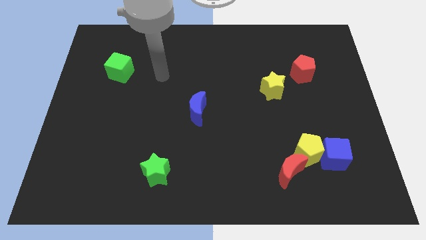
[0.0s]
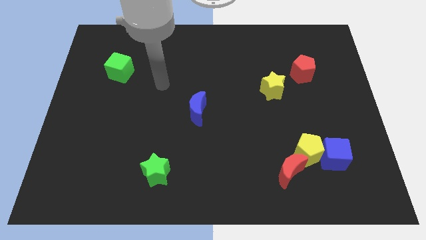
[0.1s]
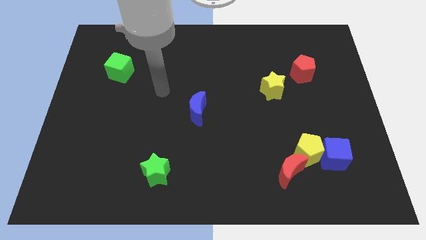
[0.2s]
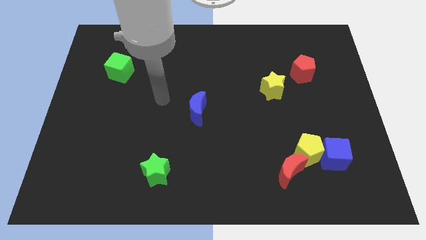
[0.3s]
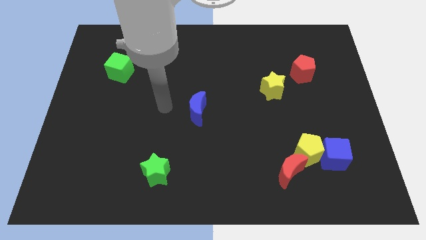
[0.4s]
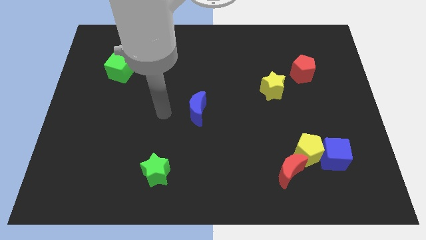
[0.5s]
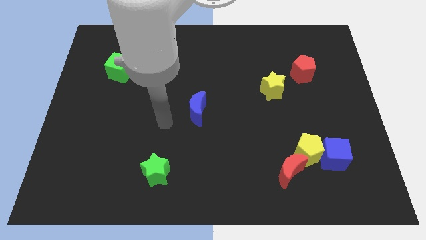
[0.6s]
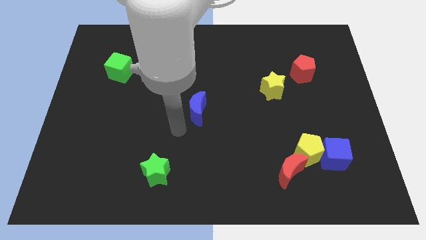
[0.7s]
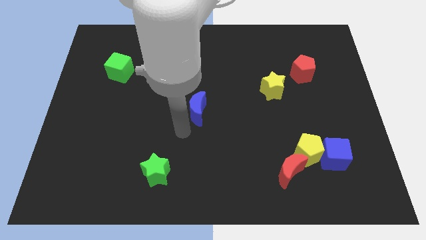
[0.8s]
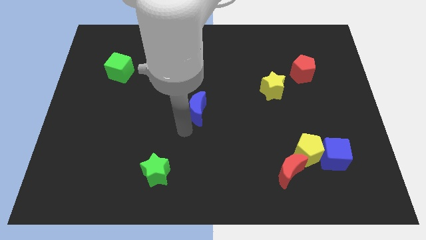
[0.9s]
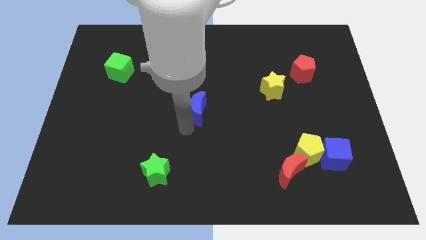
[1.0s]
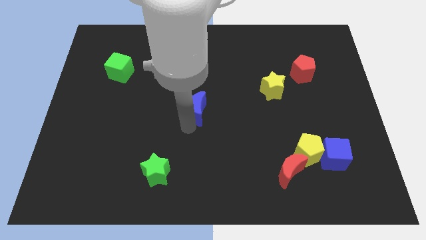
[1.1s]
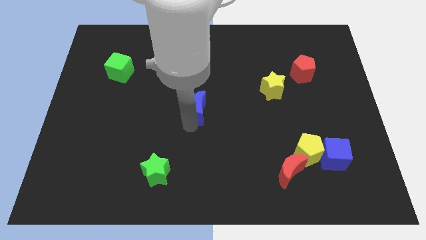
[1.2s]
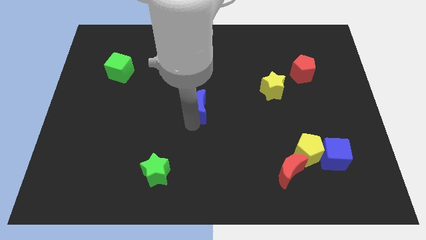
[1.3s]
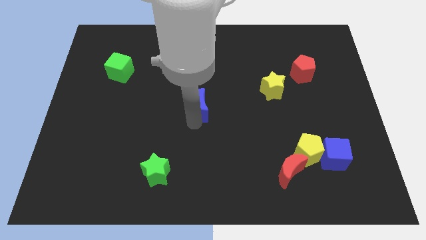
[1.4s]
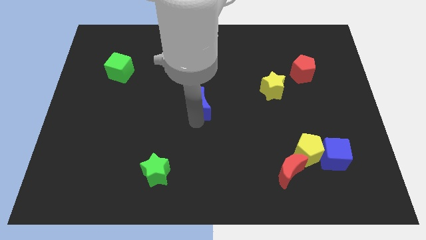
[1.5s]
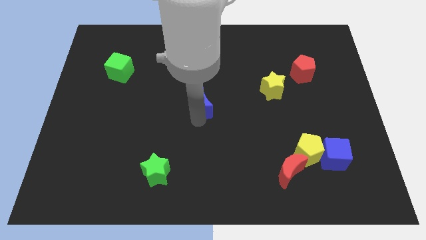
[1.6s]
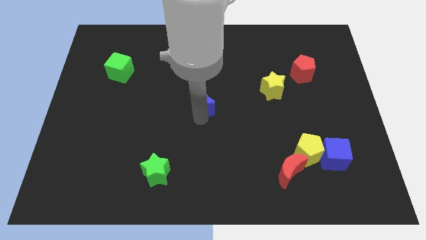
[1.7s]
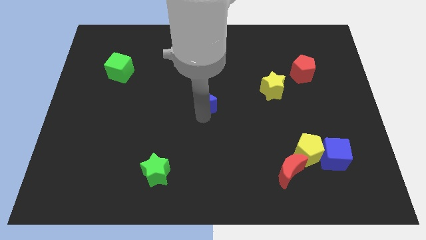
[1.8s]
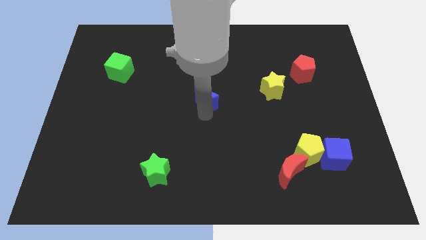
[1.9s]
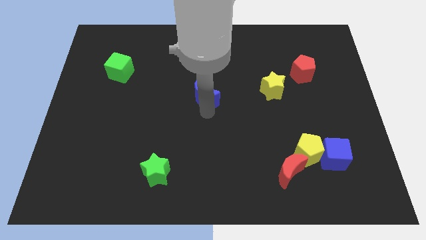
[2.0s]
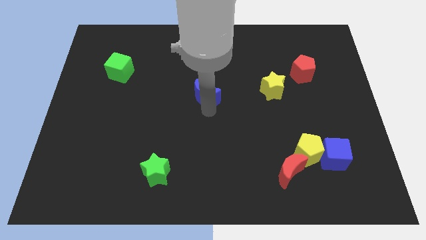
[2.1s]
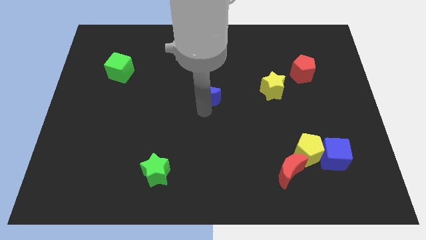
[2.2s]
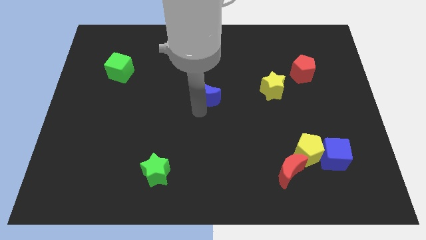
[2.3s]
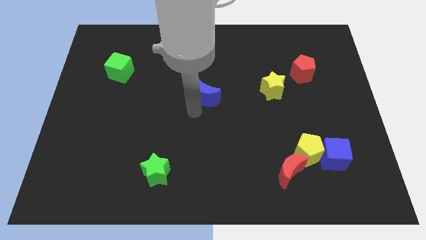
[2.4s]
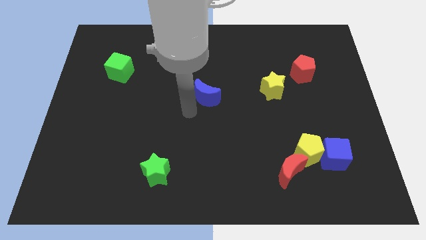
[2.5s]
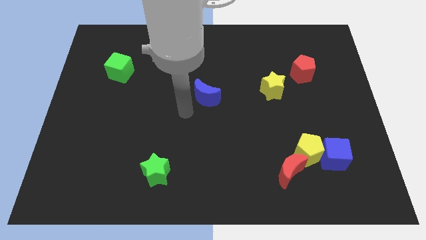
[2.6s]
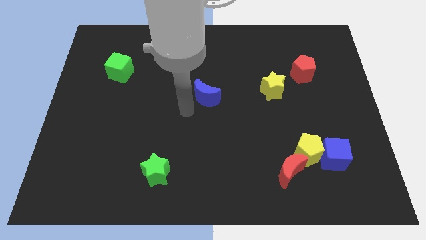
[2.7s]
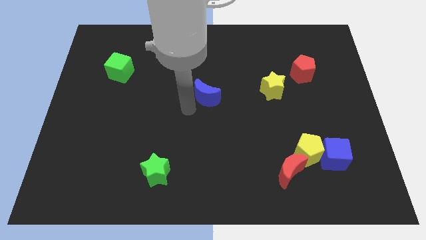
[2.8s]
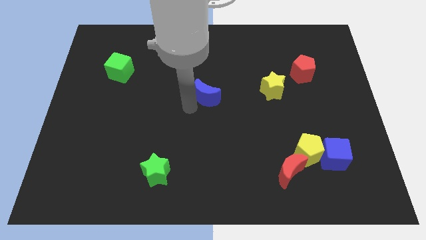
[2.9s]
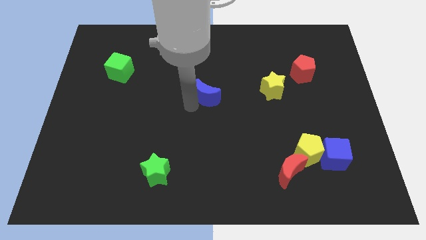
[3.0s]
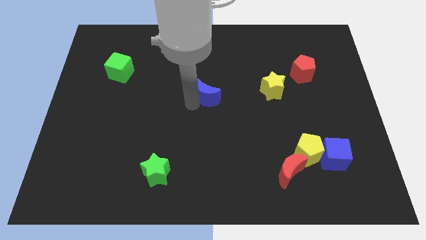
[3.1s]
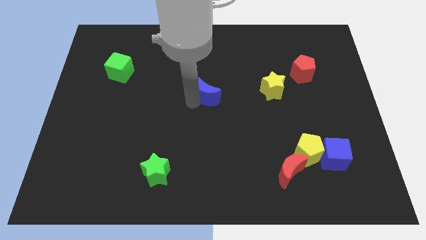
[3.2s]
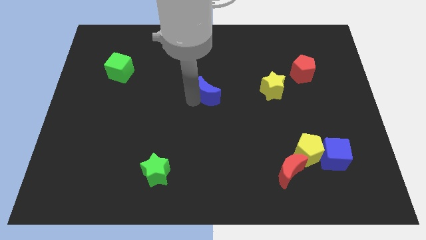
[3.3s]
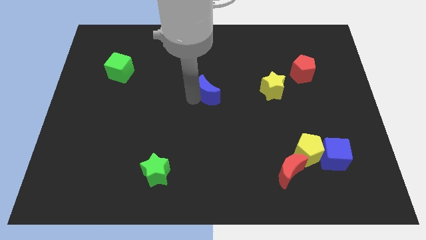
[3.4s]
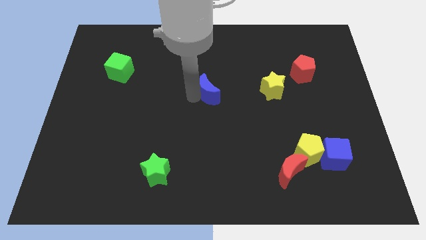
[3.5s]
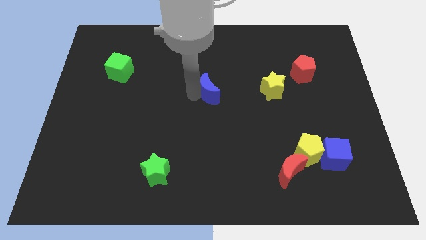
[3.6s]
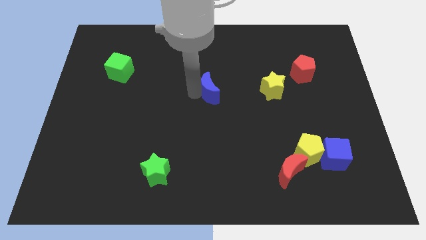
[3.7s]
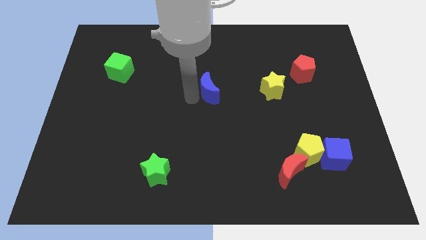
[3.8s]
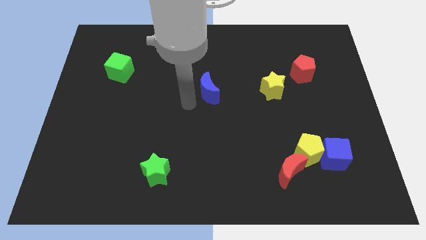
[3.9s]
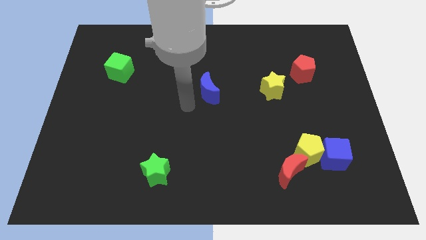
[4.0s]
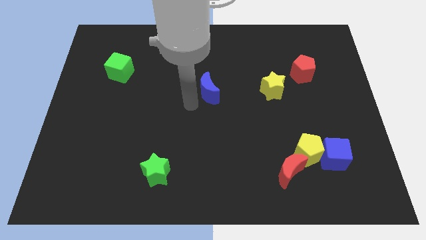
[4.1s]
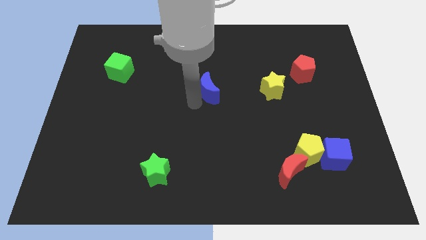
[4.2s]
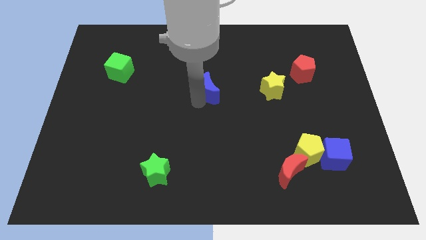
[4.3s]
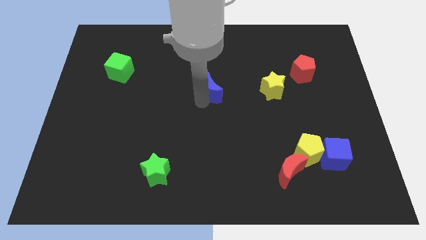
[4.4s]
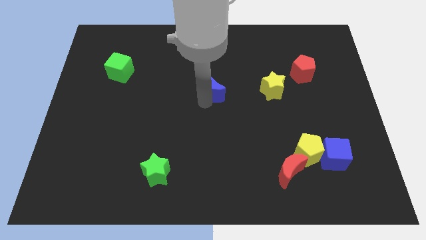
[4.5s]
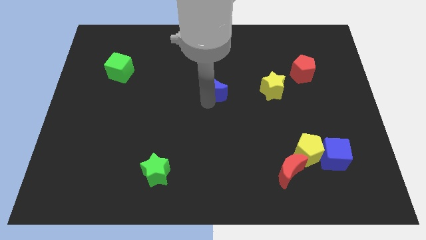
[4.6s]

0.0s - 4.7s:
move the blue moon somewhat diagonally up and to the right

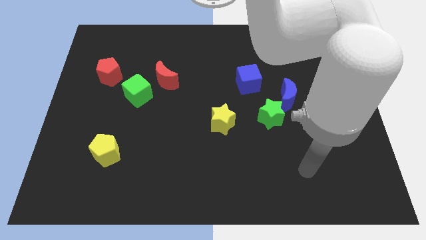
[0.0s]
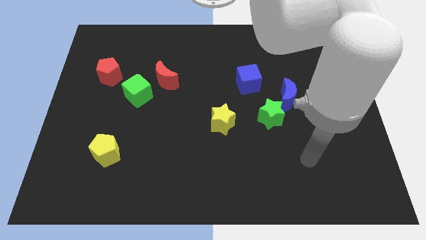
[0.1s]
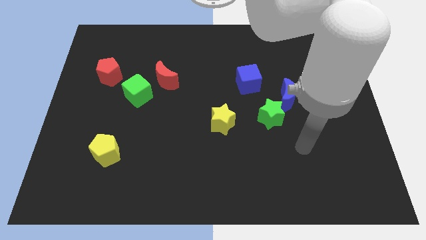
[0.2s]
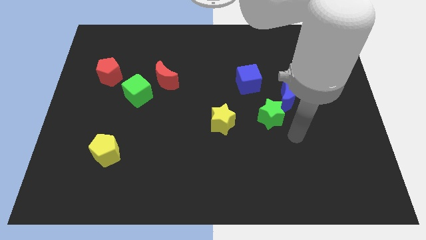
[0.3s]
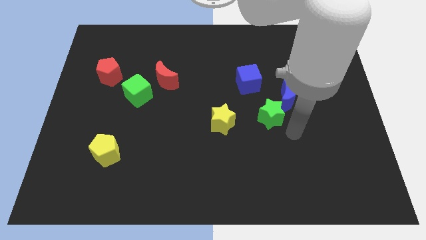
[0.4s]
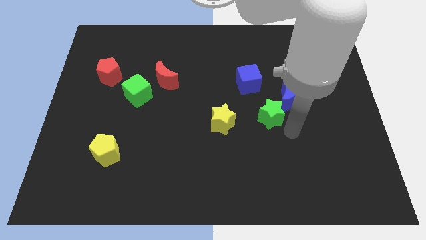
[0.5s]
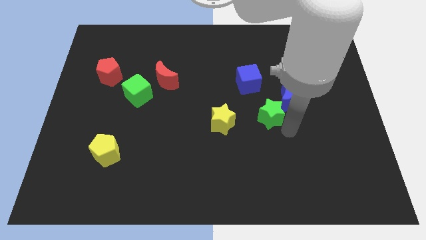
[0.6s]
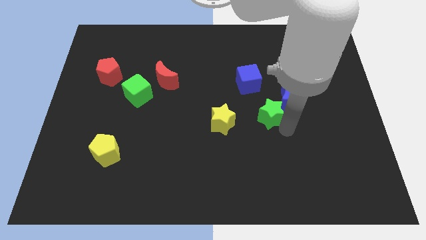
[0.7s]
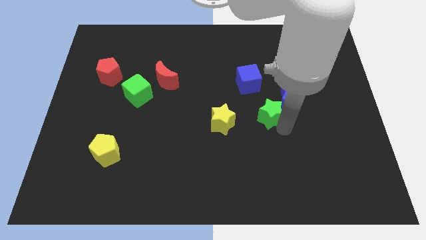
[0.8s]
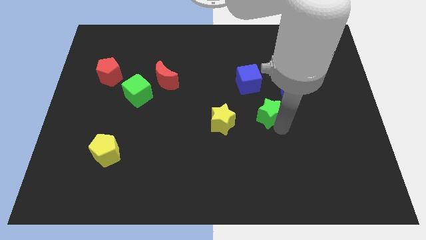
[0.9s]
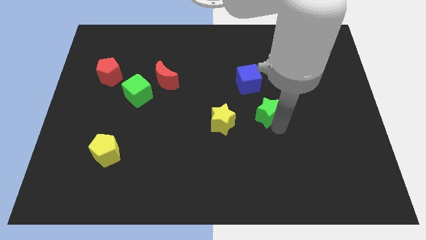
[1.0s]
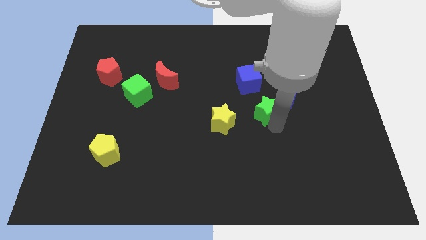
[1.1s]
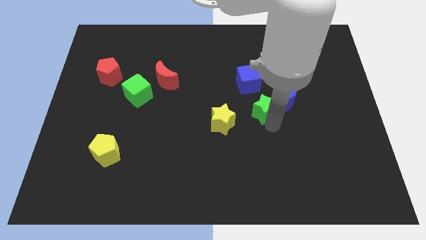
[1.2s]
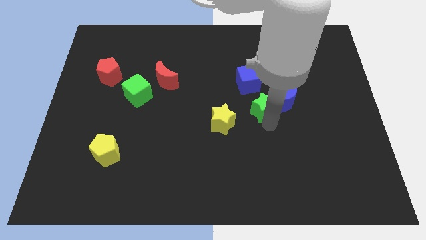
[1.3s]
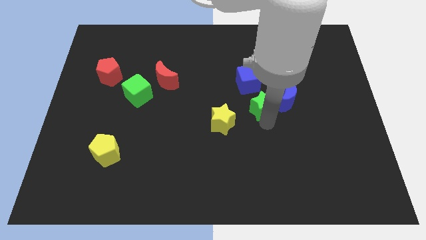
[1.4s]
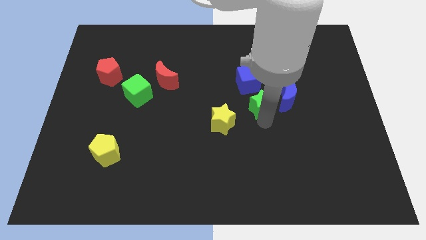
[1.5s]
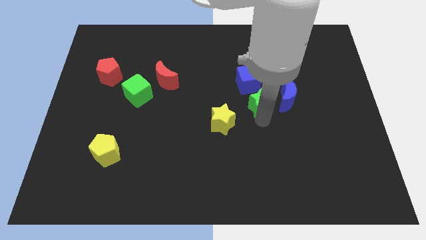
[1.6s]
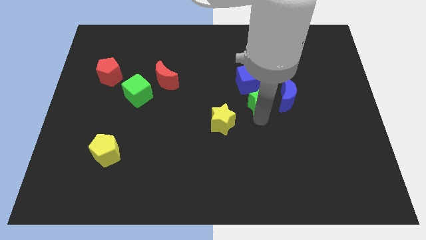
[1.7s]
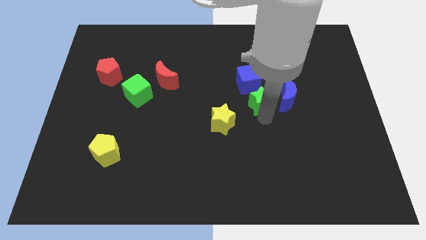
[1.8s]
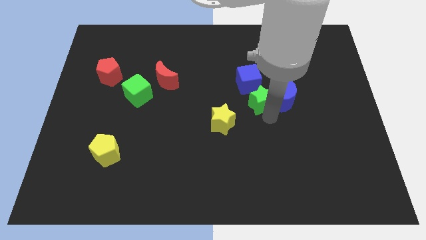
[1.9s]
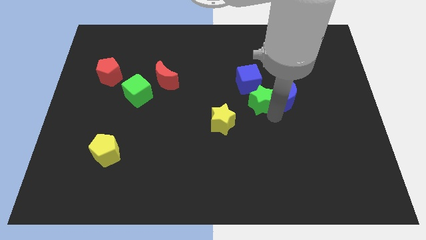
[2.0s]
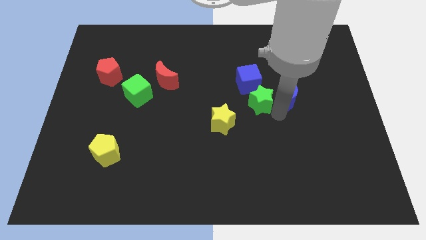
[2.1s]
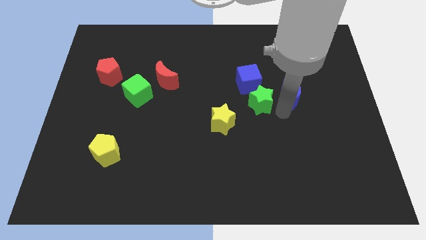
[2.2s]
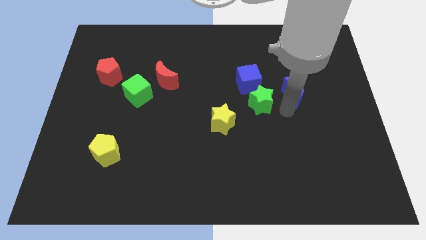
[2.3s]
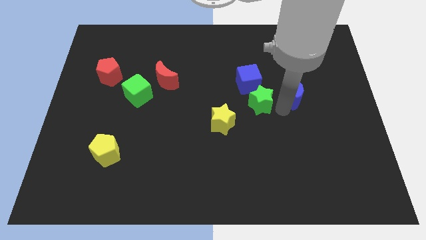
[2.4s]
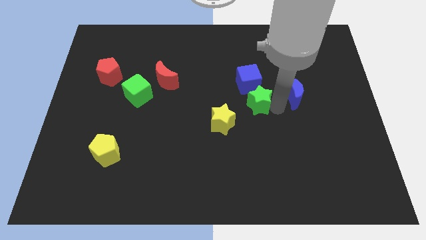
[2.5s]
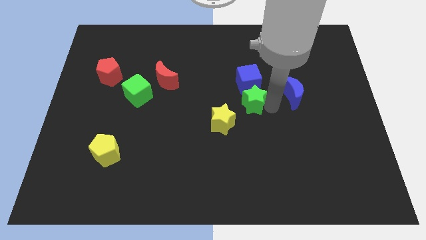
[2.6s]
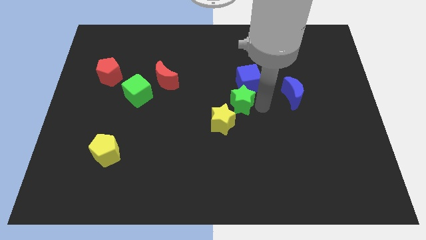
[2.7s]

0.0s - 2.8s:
slightly push the green star upwards and left diagonally
